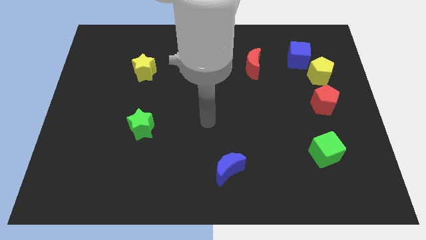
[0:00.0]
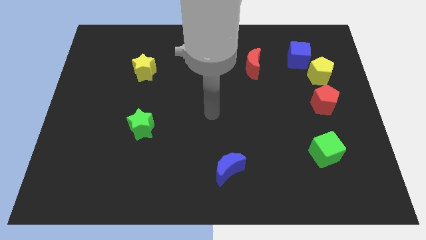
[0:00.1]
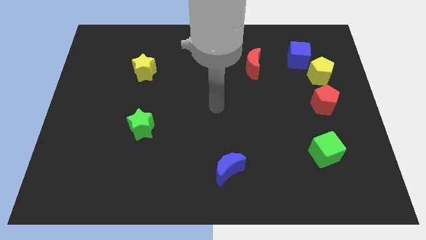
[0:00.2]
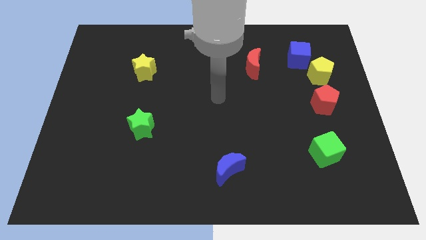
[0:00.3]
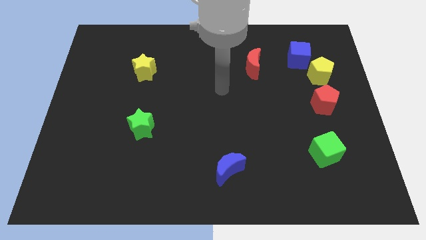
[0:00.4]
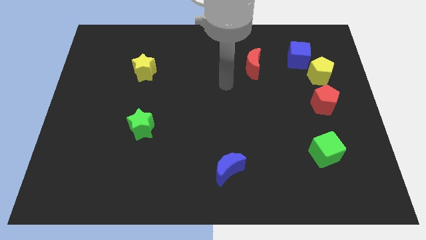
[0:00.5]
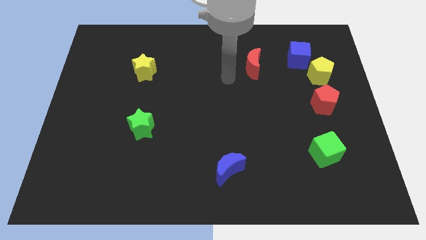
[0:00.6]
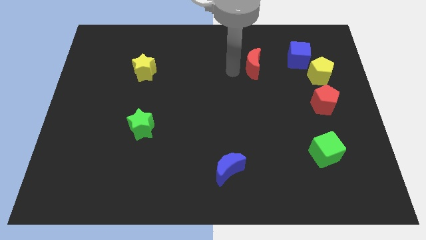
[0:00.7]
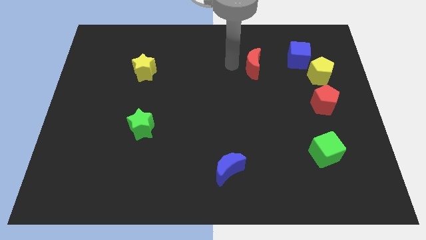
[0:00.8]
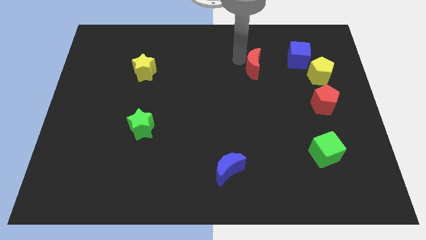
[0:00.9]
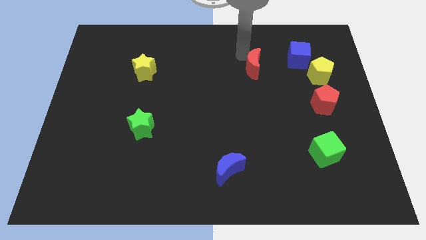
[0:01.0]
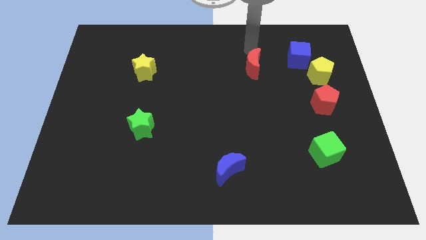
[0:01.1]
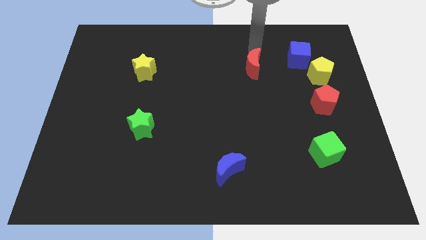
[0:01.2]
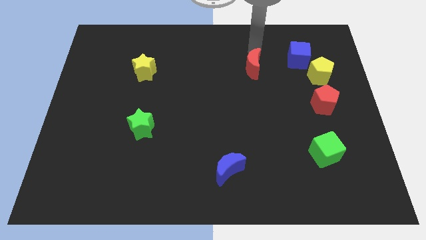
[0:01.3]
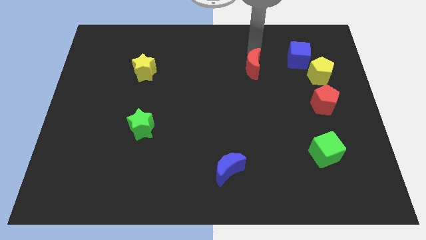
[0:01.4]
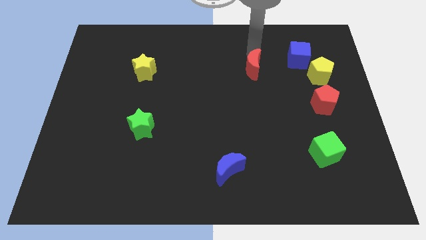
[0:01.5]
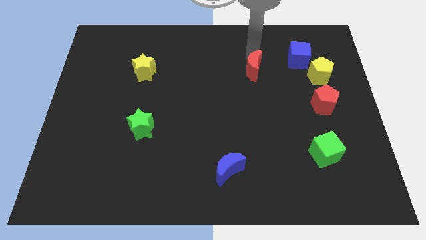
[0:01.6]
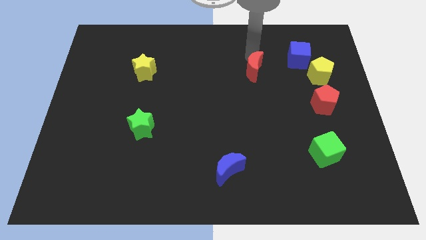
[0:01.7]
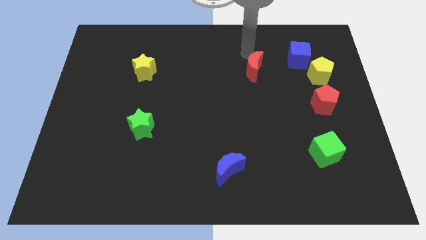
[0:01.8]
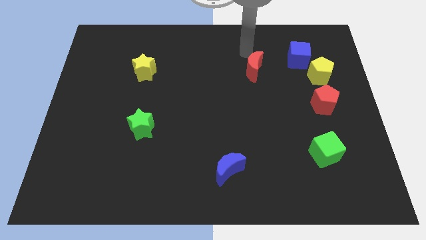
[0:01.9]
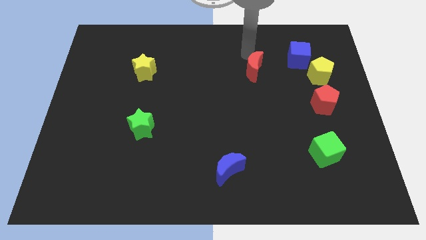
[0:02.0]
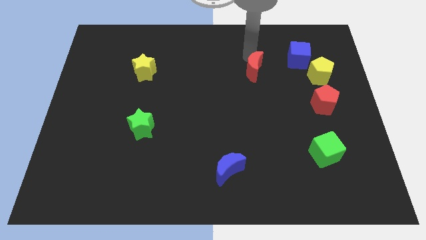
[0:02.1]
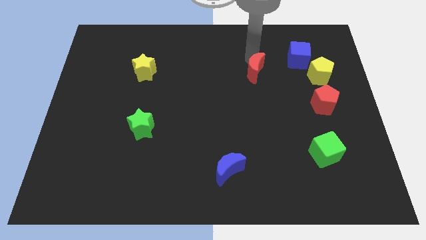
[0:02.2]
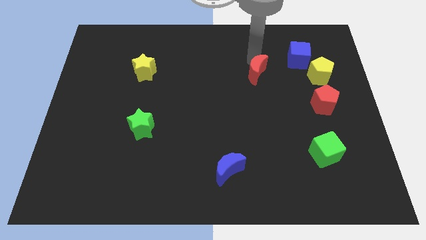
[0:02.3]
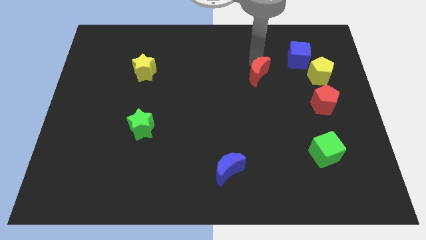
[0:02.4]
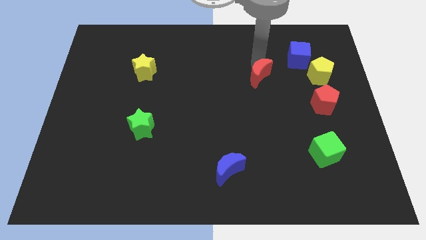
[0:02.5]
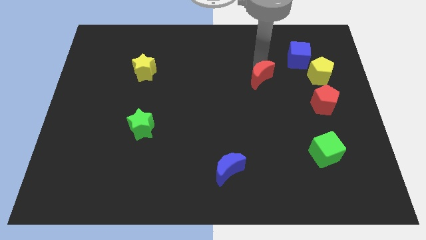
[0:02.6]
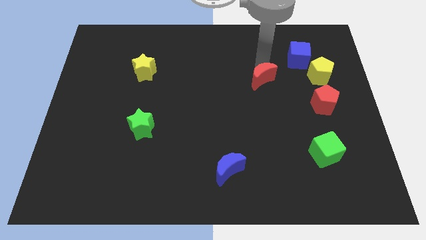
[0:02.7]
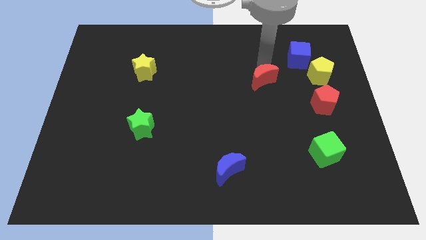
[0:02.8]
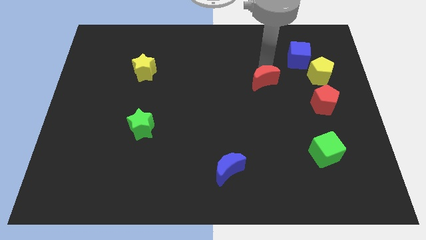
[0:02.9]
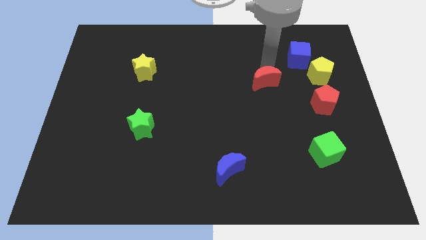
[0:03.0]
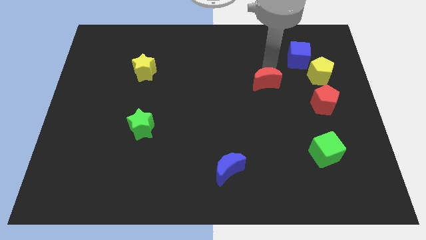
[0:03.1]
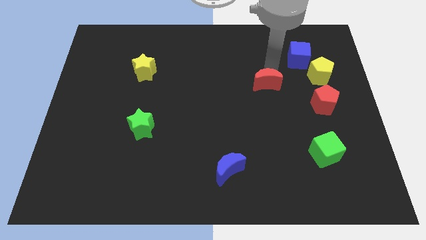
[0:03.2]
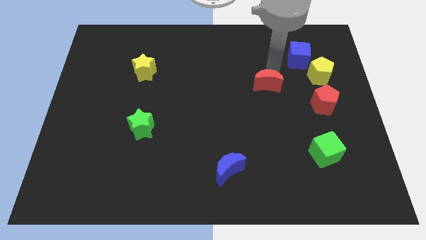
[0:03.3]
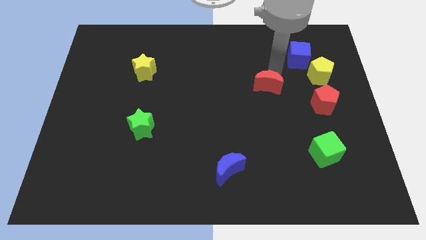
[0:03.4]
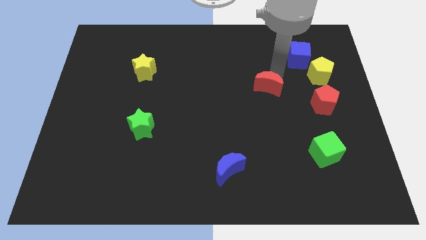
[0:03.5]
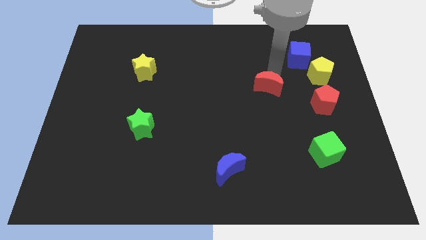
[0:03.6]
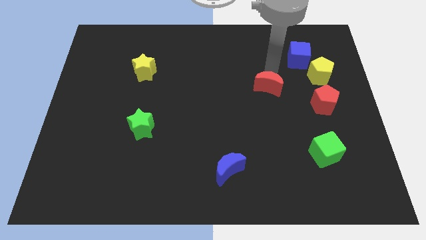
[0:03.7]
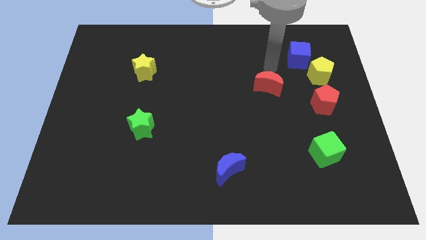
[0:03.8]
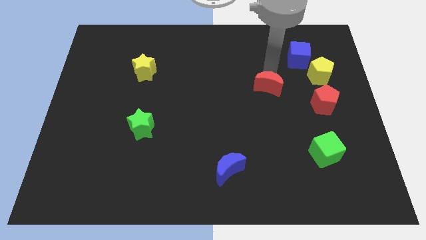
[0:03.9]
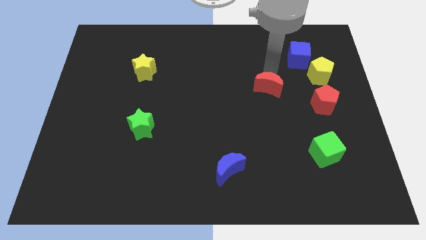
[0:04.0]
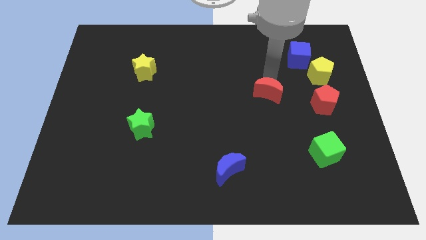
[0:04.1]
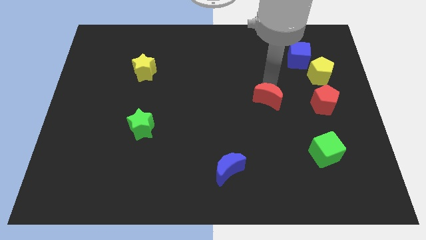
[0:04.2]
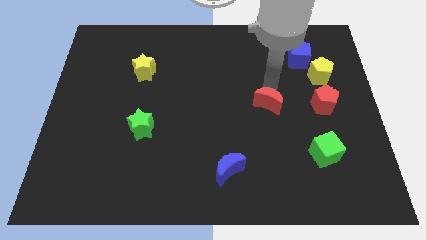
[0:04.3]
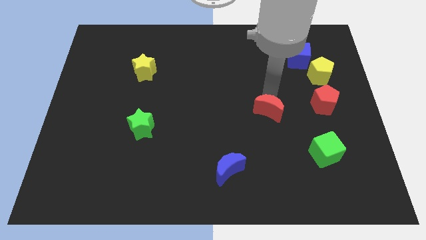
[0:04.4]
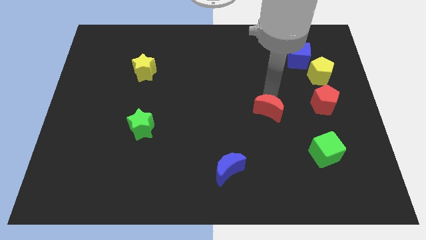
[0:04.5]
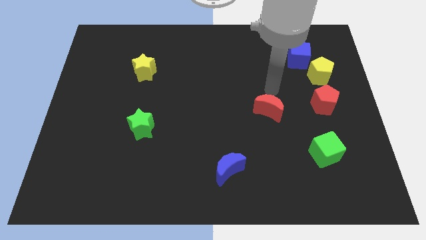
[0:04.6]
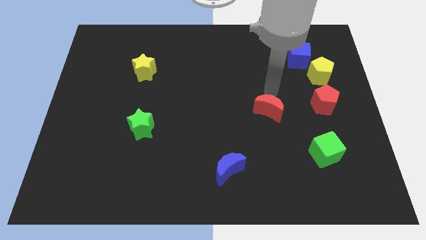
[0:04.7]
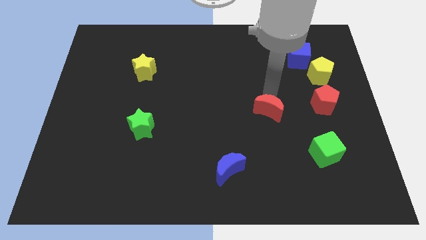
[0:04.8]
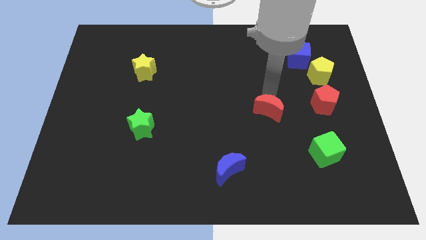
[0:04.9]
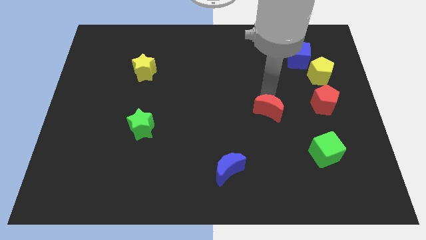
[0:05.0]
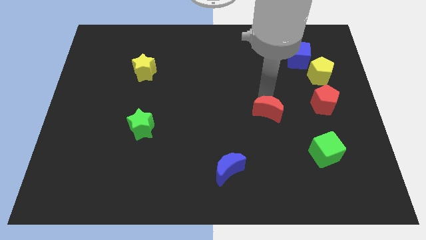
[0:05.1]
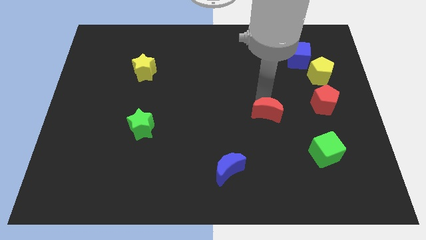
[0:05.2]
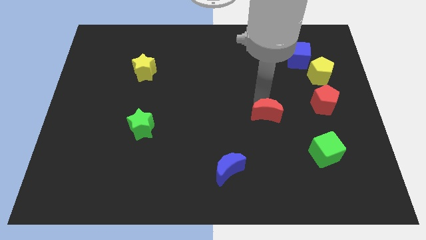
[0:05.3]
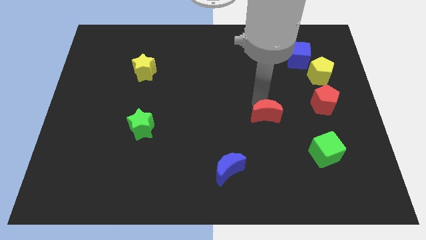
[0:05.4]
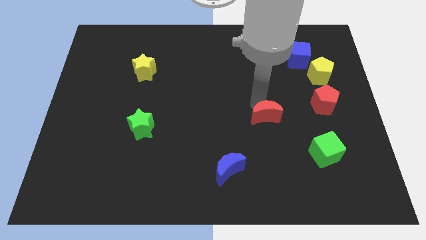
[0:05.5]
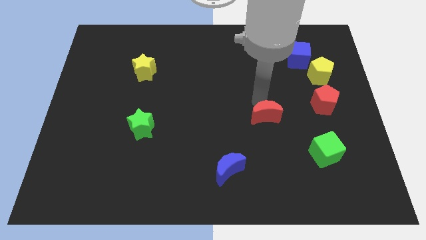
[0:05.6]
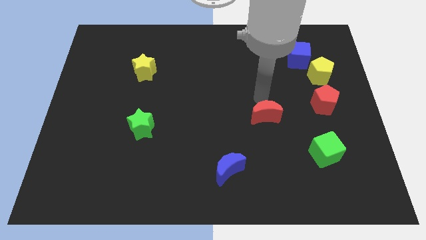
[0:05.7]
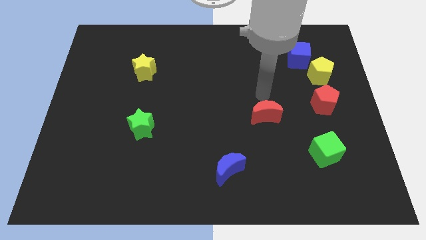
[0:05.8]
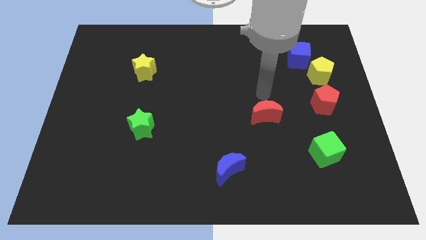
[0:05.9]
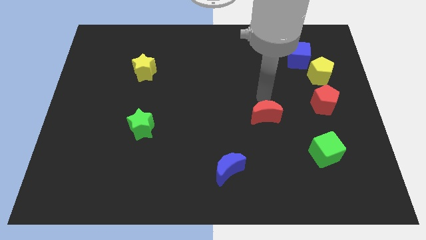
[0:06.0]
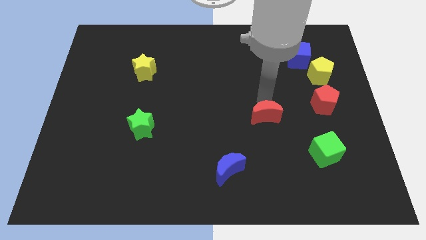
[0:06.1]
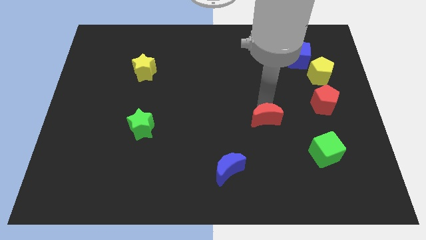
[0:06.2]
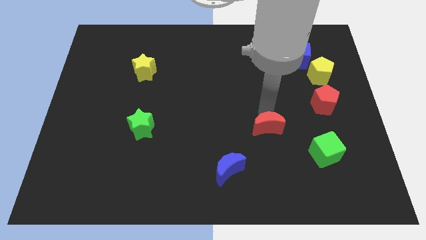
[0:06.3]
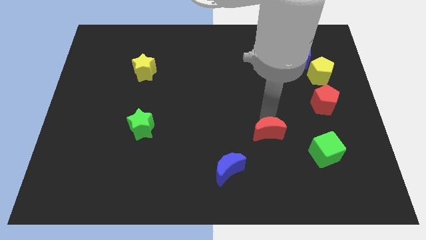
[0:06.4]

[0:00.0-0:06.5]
move the red moon downwards

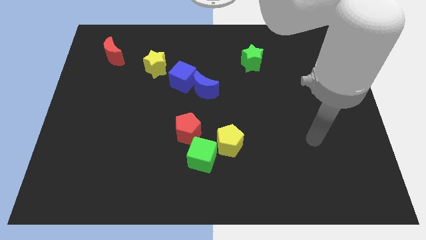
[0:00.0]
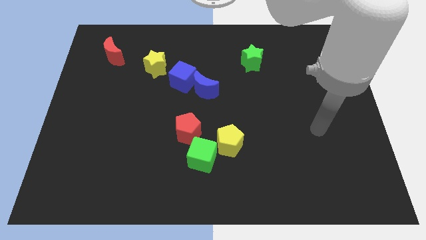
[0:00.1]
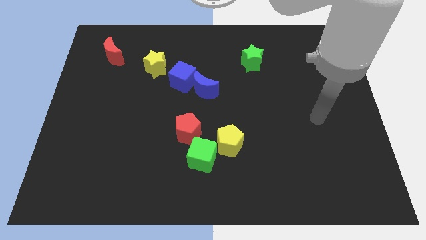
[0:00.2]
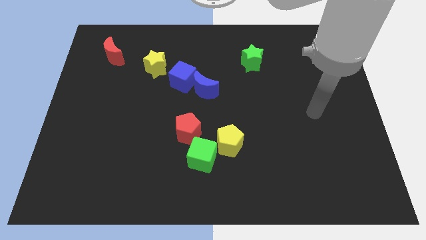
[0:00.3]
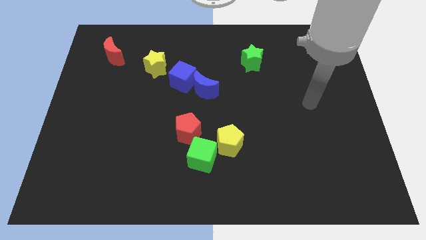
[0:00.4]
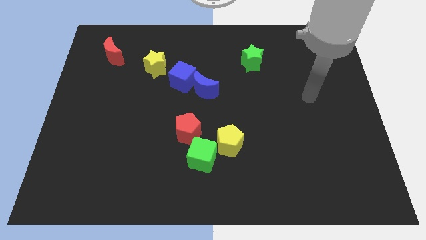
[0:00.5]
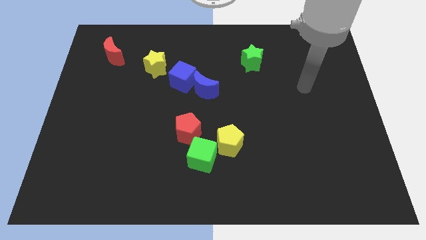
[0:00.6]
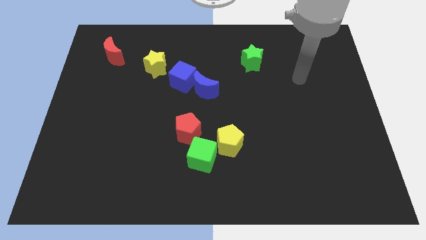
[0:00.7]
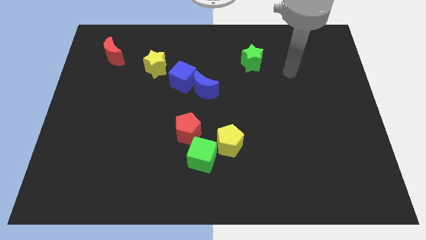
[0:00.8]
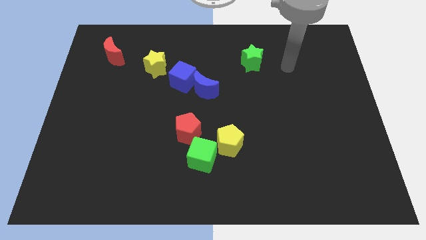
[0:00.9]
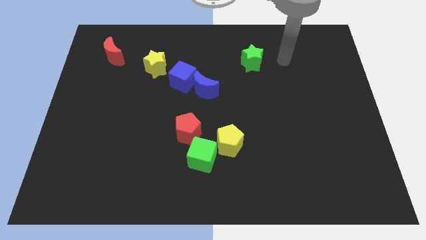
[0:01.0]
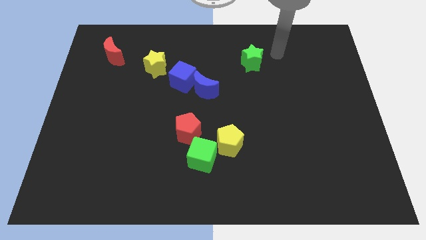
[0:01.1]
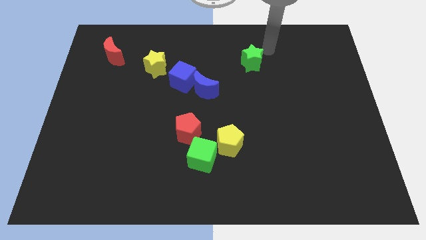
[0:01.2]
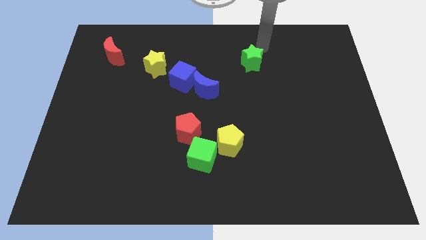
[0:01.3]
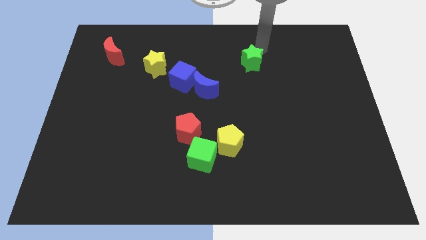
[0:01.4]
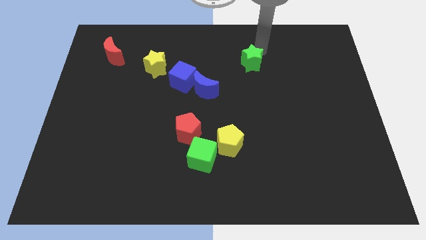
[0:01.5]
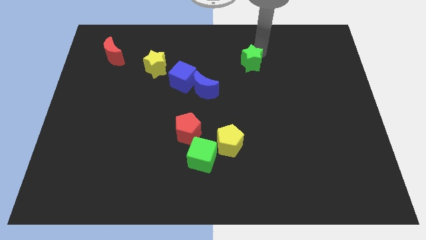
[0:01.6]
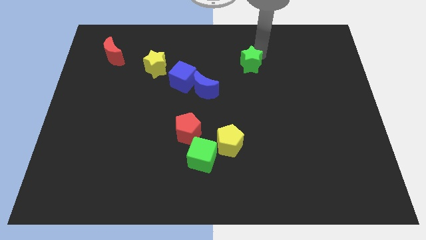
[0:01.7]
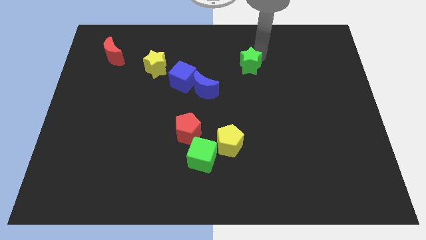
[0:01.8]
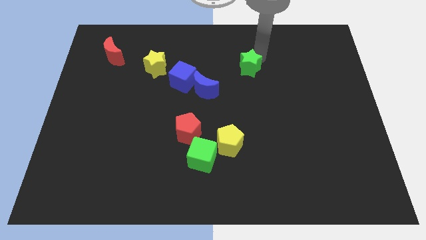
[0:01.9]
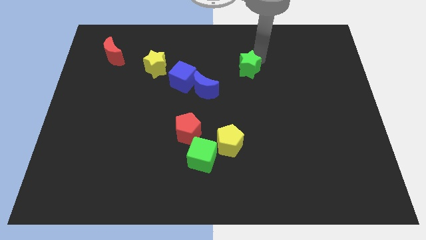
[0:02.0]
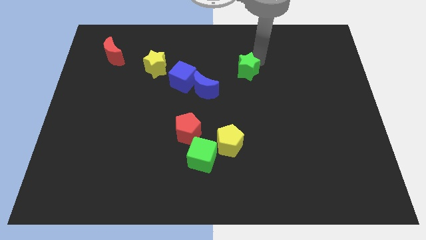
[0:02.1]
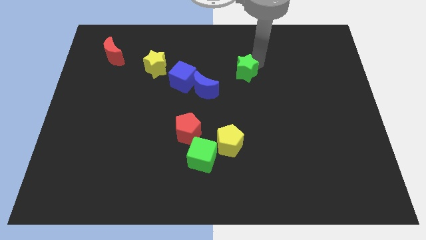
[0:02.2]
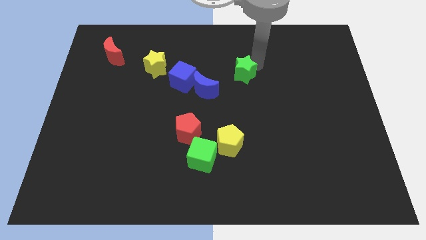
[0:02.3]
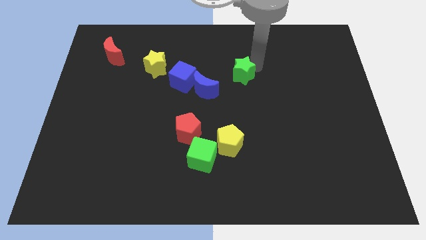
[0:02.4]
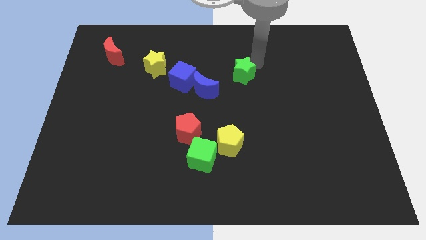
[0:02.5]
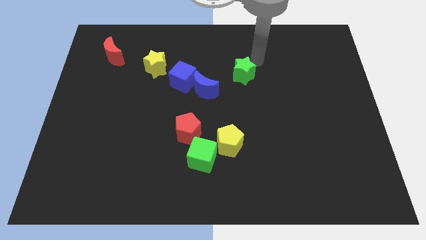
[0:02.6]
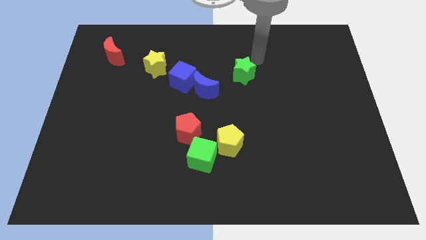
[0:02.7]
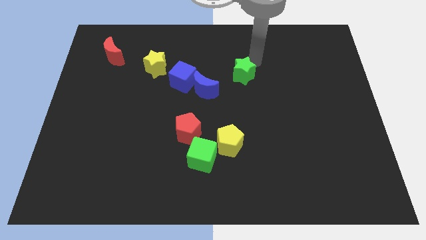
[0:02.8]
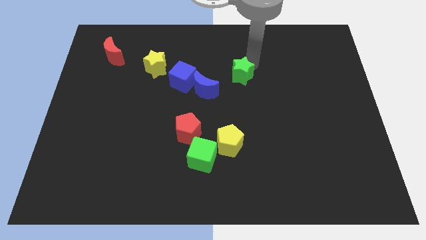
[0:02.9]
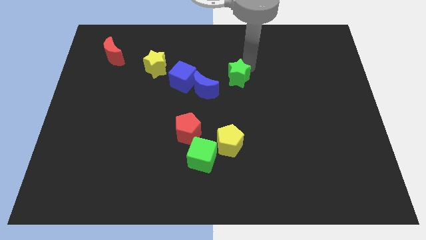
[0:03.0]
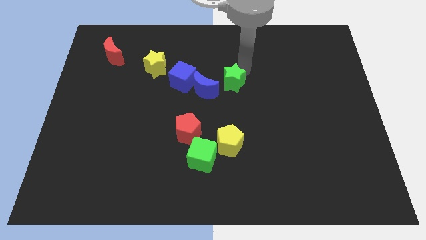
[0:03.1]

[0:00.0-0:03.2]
push the green star a bit diagonally down and to the left
